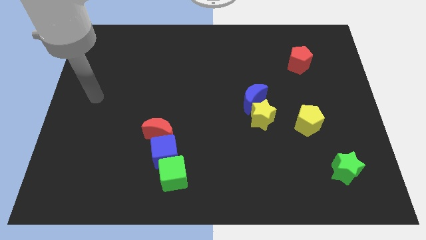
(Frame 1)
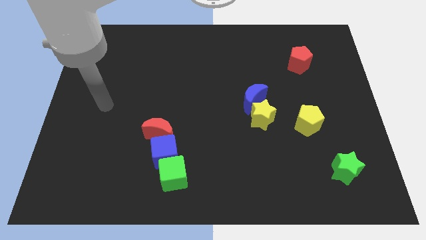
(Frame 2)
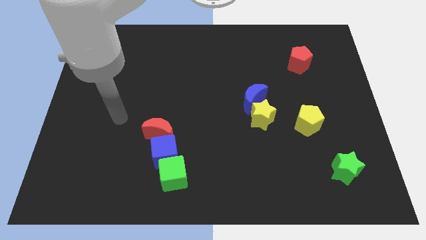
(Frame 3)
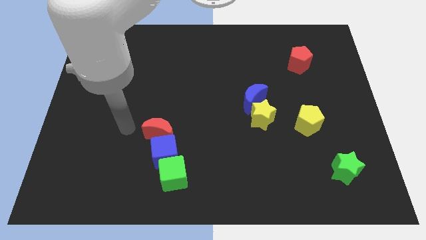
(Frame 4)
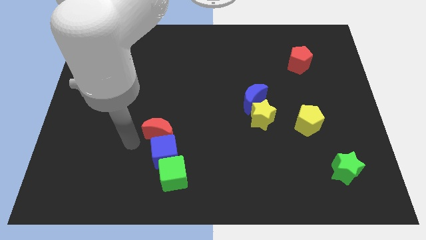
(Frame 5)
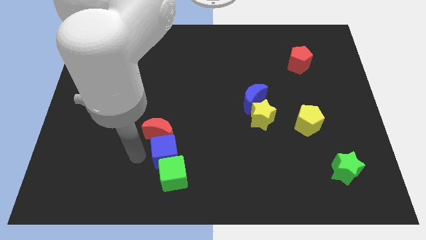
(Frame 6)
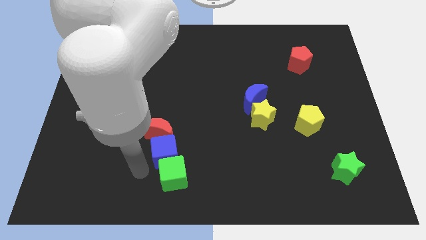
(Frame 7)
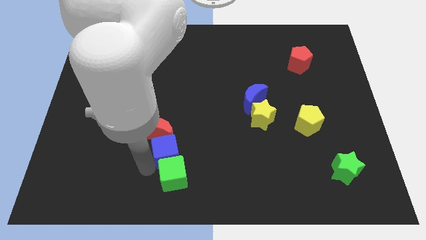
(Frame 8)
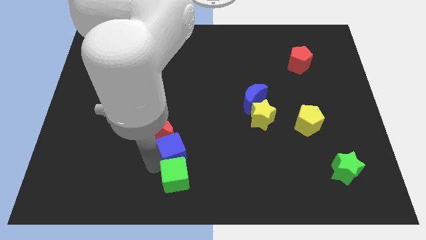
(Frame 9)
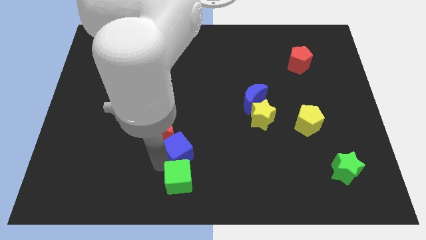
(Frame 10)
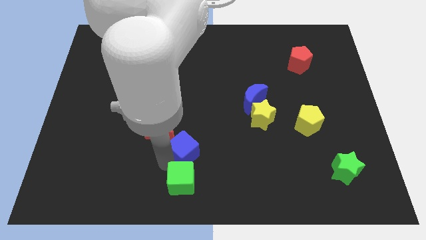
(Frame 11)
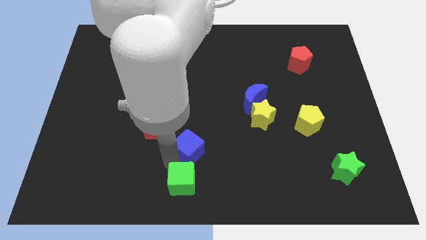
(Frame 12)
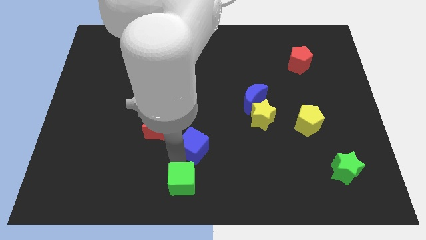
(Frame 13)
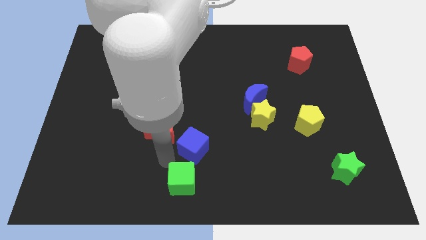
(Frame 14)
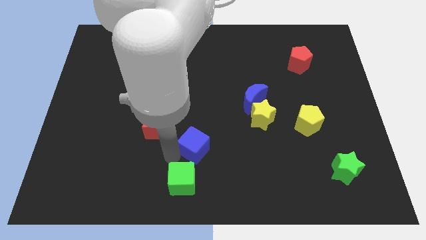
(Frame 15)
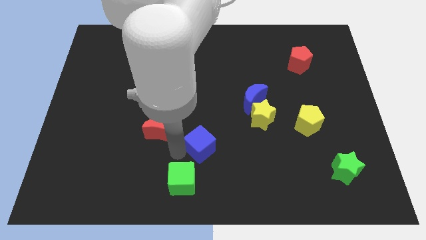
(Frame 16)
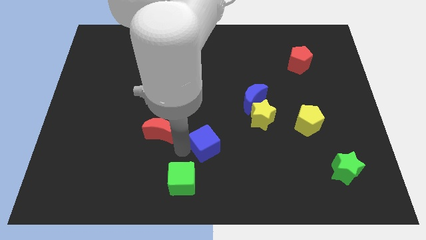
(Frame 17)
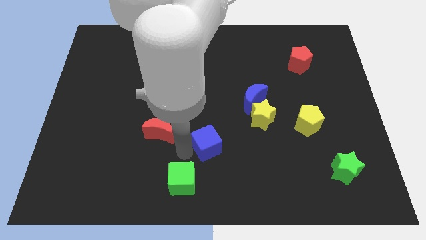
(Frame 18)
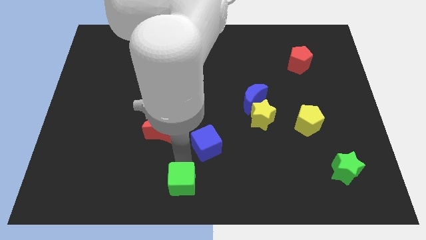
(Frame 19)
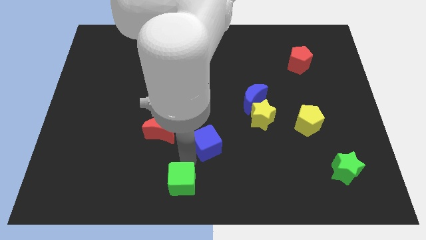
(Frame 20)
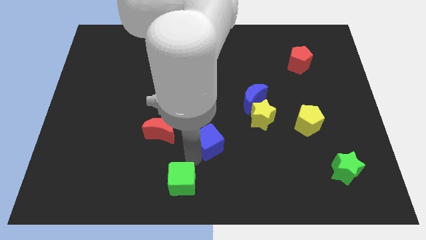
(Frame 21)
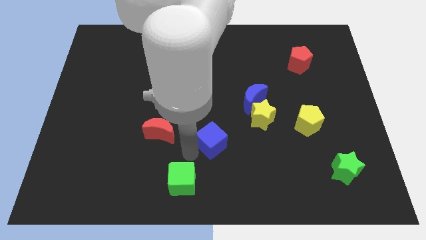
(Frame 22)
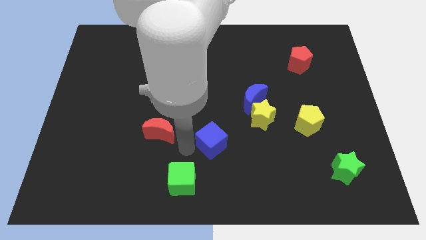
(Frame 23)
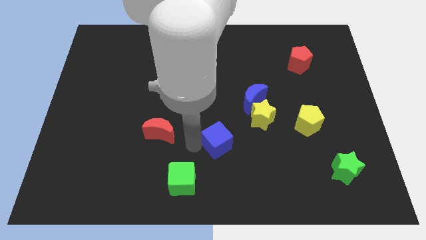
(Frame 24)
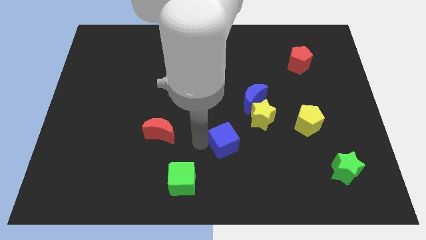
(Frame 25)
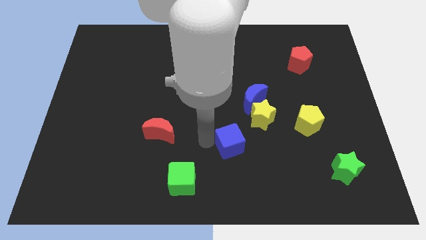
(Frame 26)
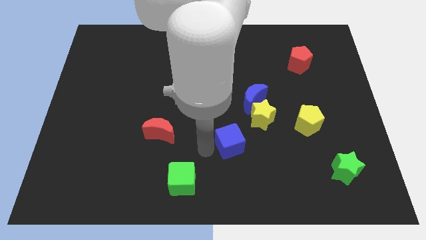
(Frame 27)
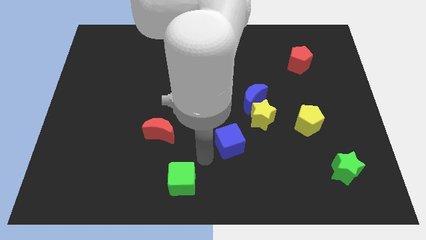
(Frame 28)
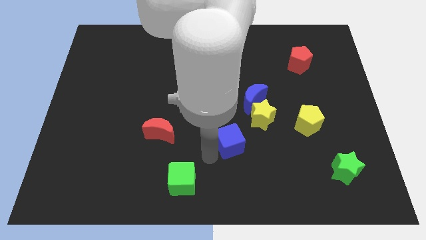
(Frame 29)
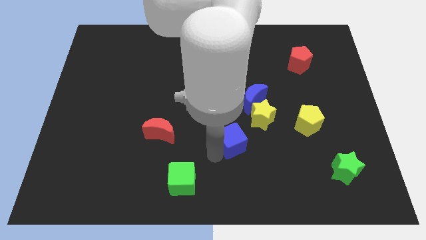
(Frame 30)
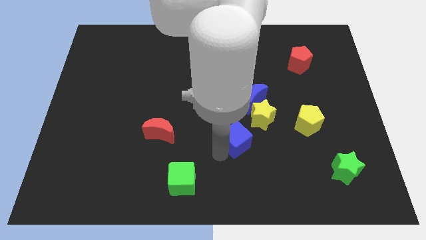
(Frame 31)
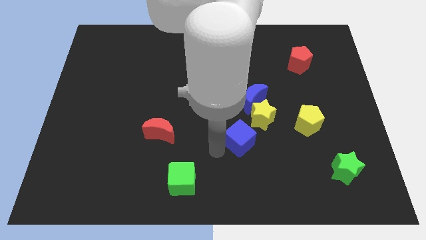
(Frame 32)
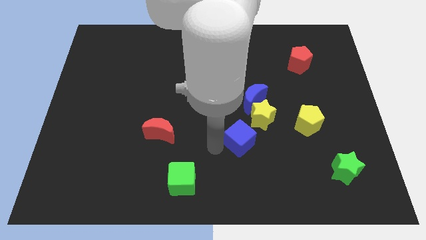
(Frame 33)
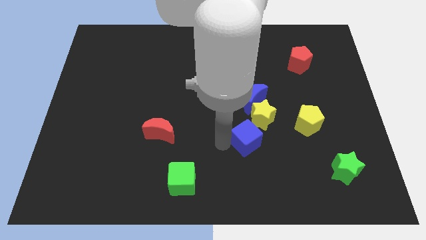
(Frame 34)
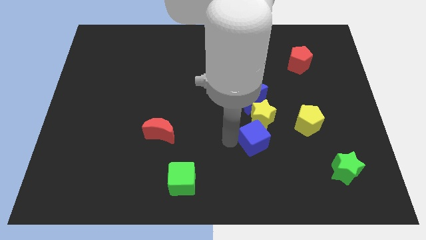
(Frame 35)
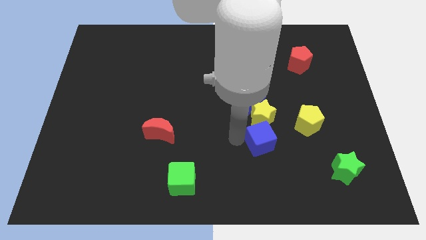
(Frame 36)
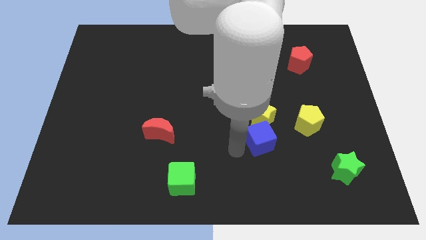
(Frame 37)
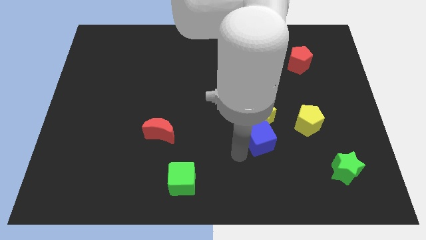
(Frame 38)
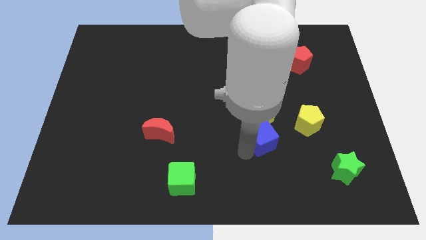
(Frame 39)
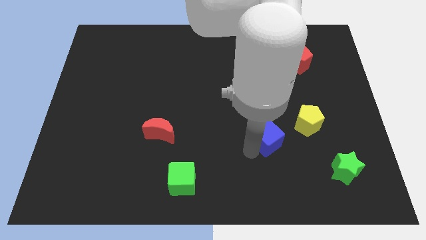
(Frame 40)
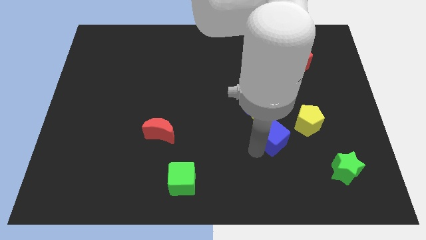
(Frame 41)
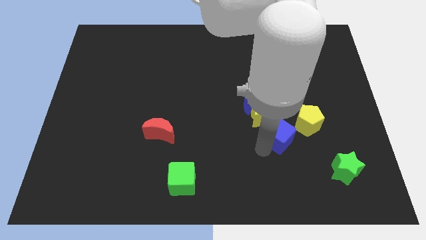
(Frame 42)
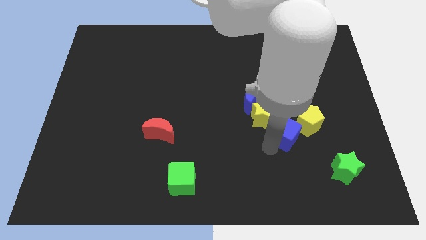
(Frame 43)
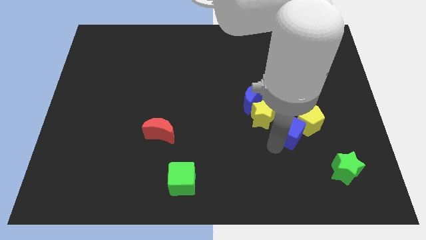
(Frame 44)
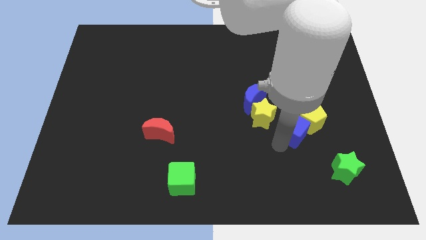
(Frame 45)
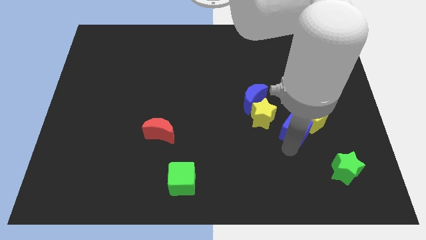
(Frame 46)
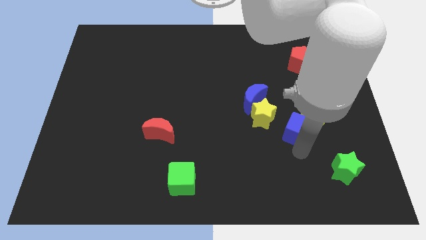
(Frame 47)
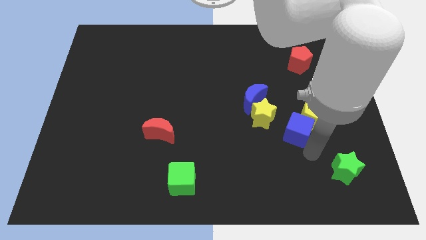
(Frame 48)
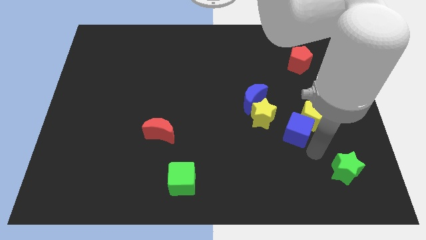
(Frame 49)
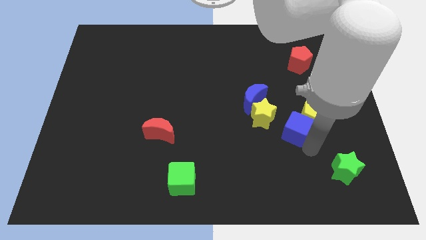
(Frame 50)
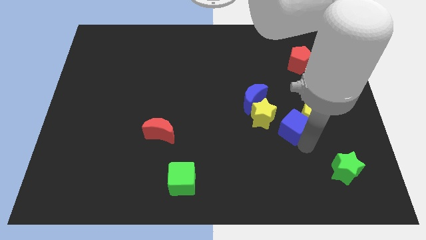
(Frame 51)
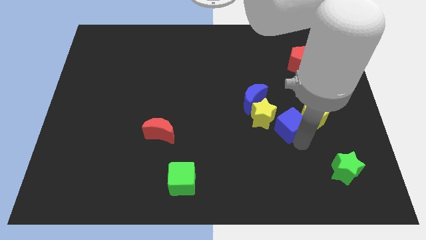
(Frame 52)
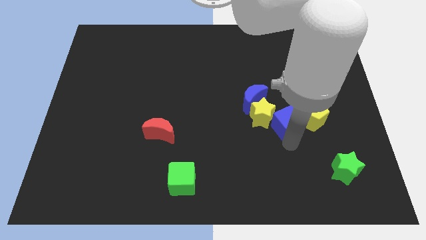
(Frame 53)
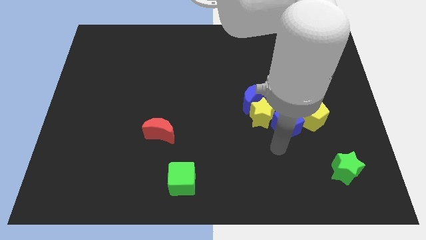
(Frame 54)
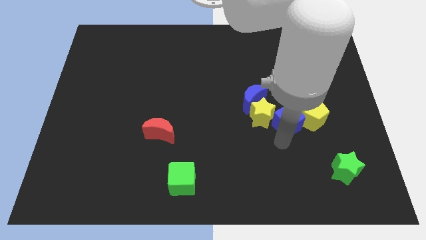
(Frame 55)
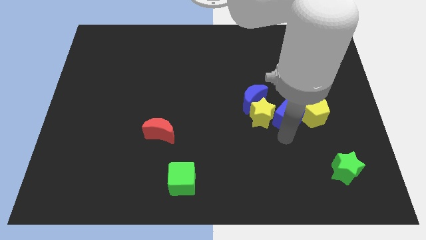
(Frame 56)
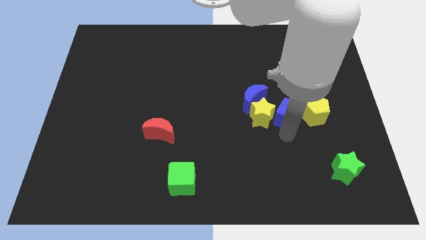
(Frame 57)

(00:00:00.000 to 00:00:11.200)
slide the blue cube right of the blue moon

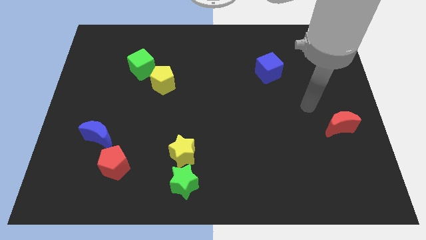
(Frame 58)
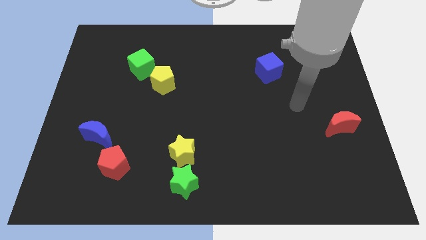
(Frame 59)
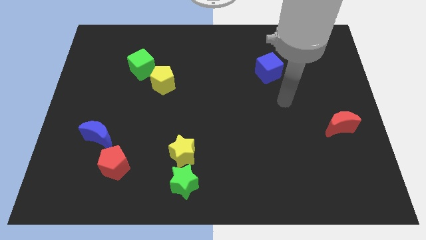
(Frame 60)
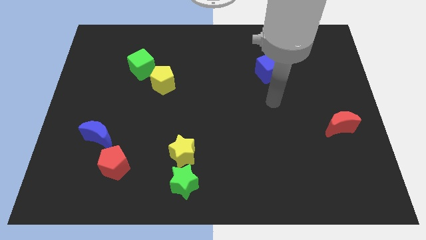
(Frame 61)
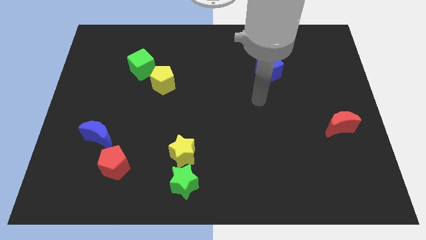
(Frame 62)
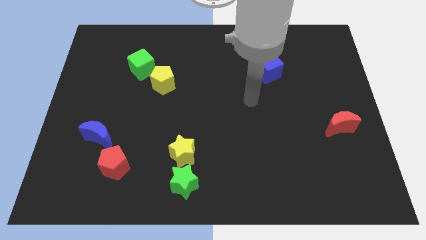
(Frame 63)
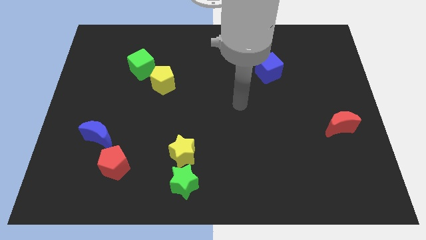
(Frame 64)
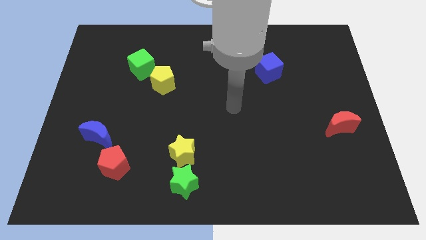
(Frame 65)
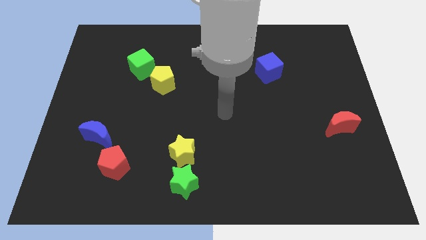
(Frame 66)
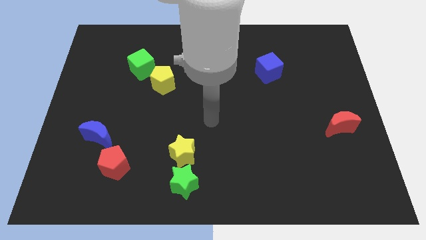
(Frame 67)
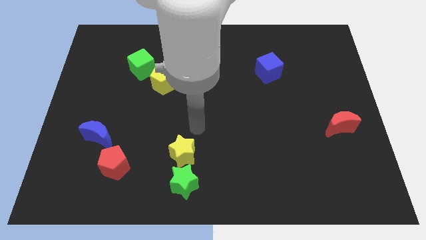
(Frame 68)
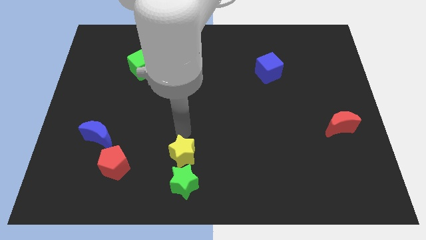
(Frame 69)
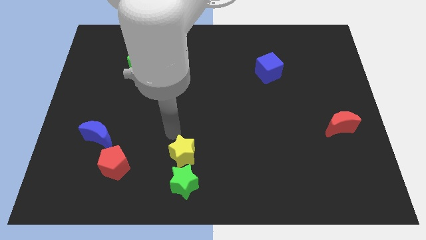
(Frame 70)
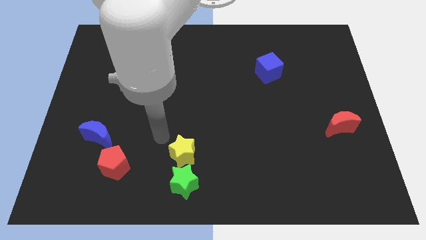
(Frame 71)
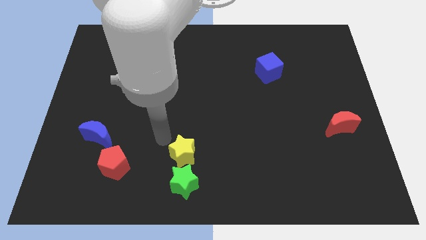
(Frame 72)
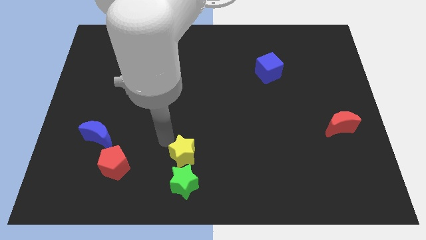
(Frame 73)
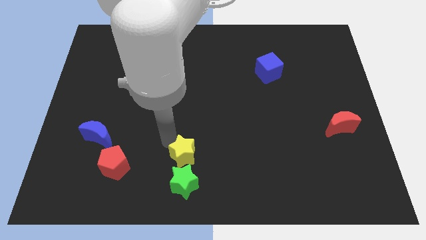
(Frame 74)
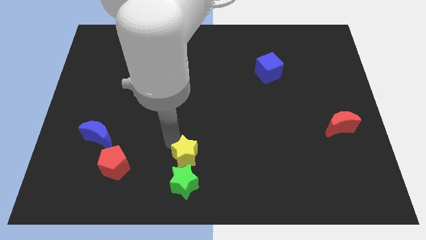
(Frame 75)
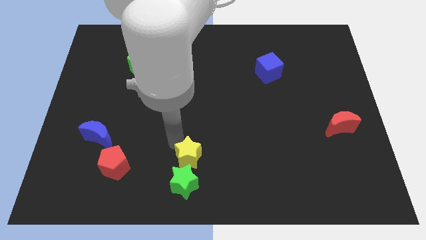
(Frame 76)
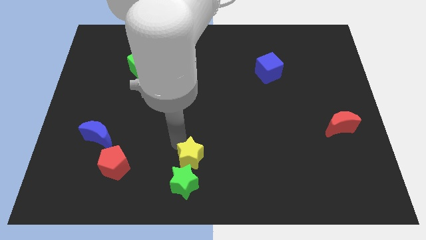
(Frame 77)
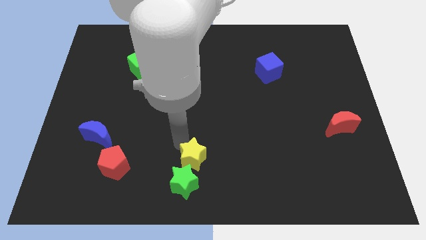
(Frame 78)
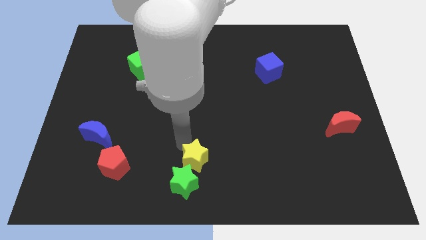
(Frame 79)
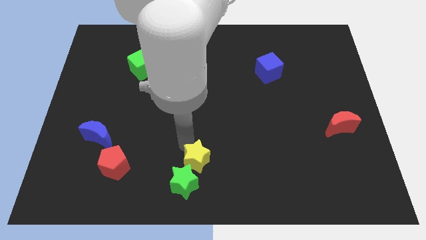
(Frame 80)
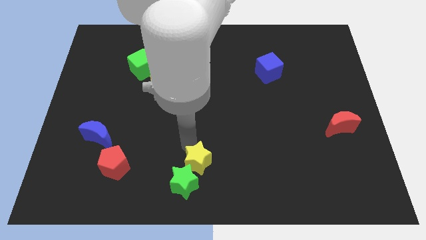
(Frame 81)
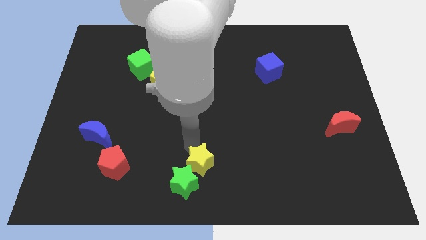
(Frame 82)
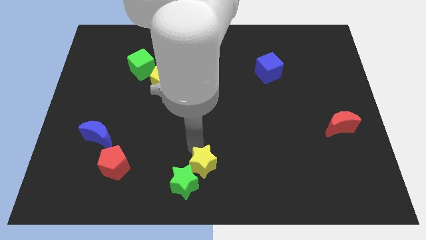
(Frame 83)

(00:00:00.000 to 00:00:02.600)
slide the yellow star to the right of the green star
